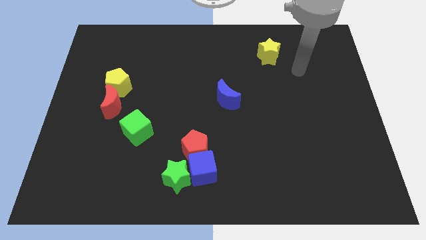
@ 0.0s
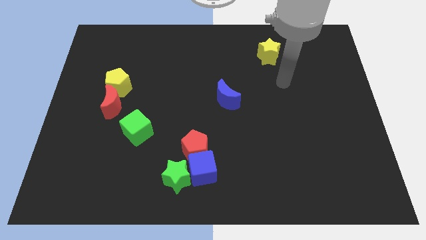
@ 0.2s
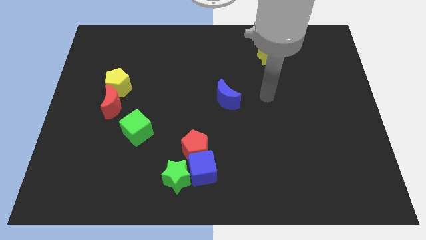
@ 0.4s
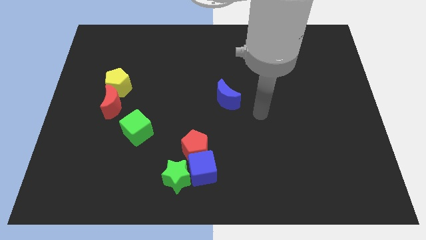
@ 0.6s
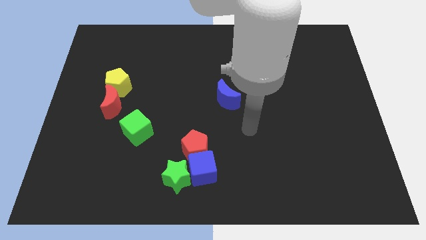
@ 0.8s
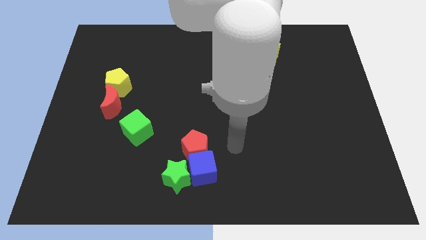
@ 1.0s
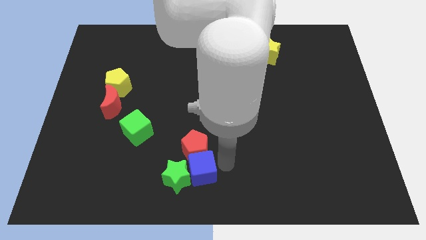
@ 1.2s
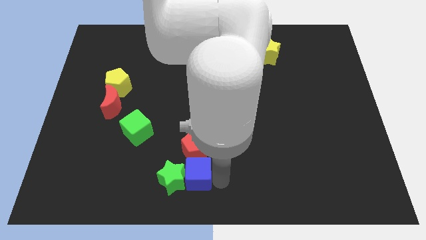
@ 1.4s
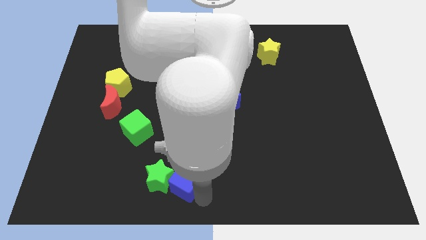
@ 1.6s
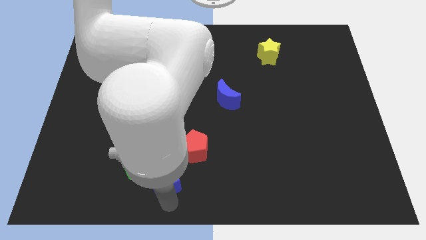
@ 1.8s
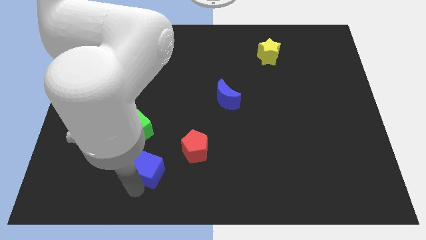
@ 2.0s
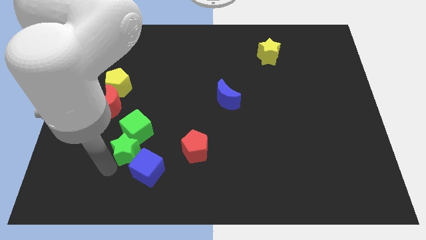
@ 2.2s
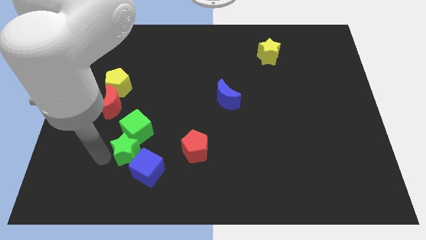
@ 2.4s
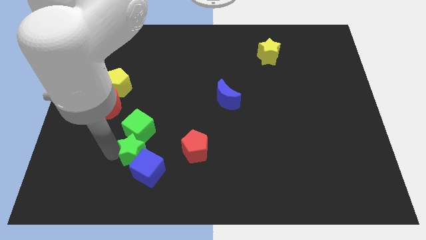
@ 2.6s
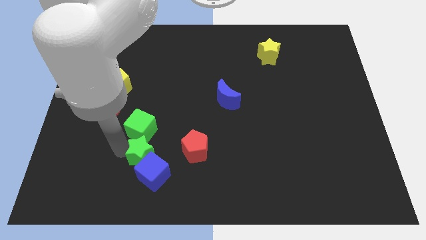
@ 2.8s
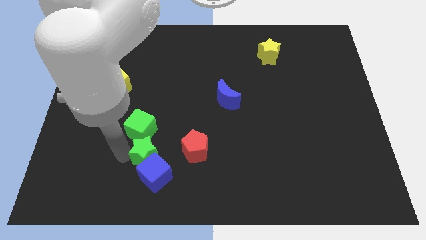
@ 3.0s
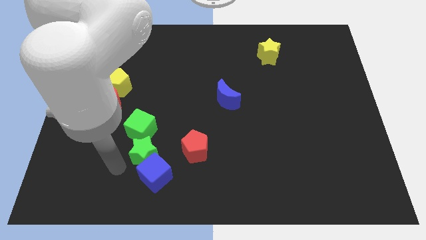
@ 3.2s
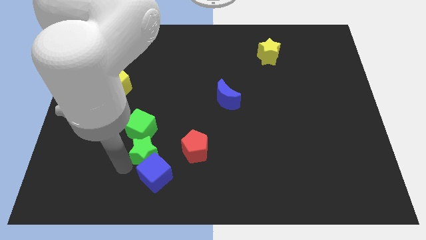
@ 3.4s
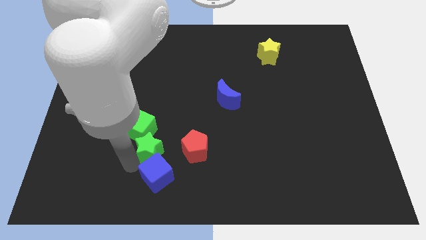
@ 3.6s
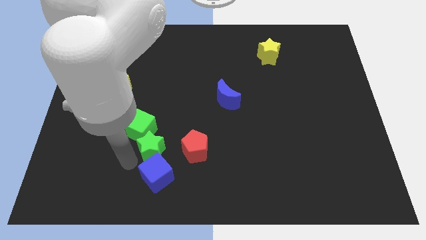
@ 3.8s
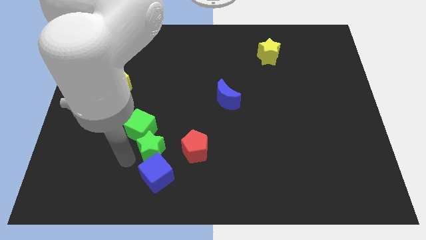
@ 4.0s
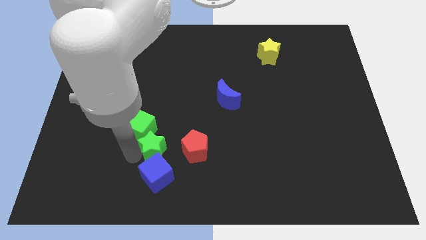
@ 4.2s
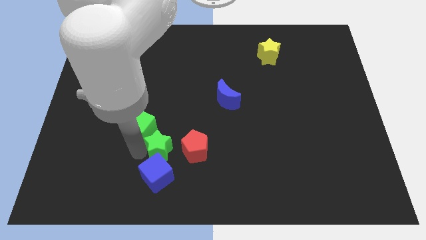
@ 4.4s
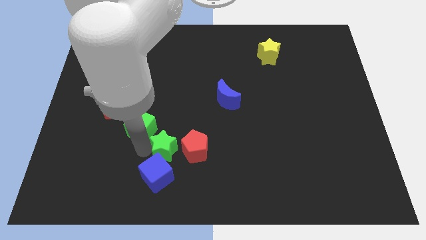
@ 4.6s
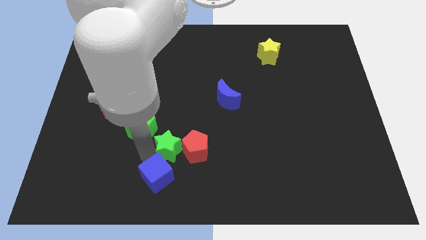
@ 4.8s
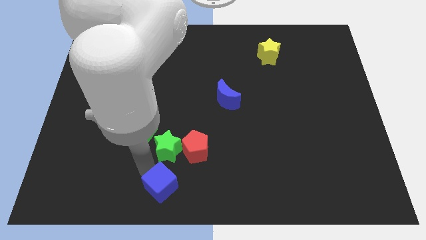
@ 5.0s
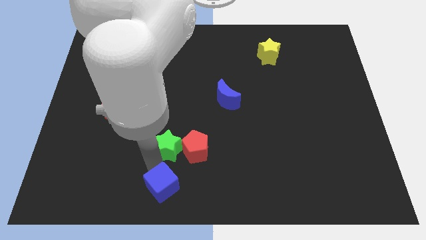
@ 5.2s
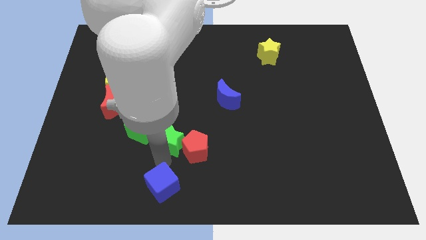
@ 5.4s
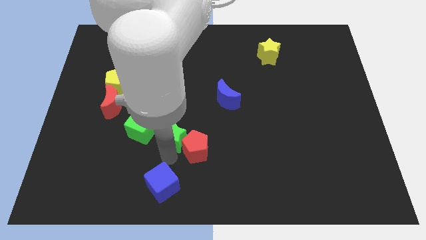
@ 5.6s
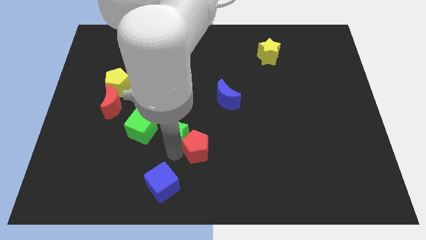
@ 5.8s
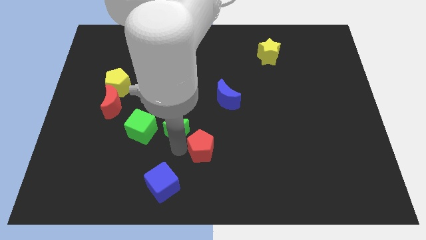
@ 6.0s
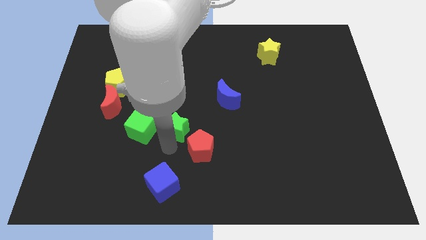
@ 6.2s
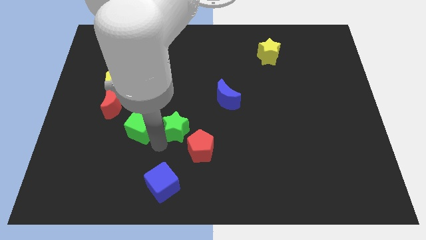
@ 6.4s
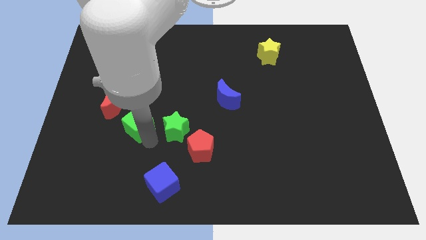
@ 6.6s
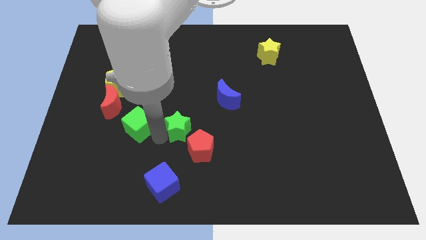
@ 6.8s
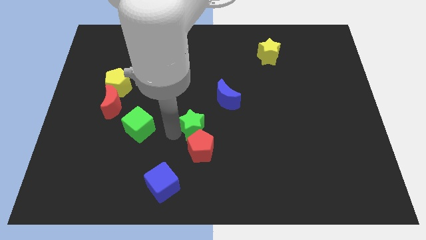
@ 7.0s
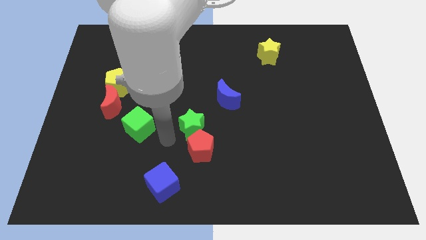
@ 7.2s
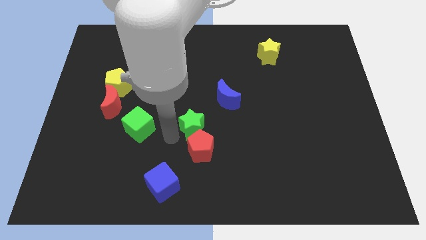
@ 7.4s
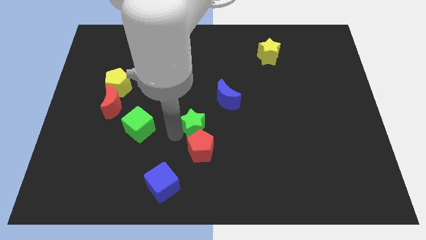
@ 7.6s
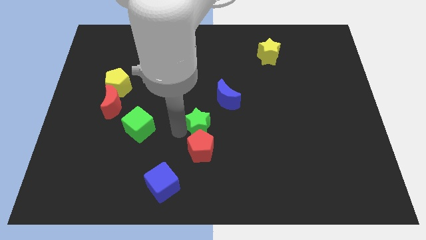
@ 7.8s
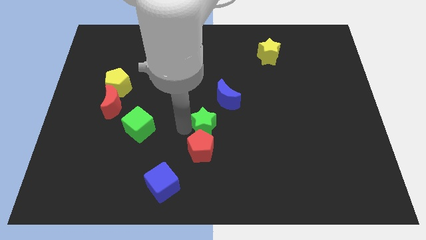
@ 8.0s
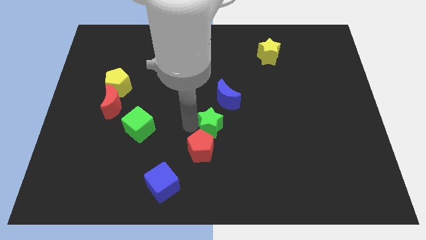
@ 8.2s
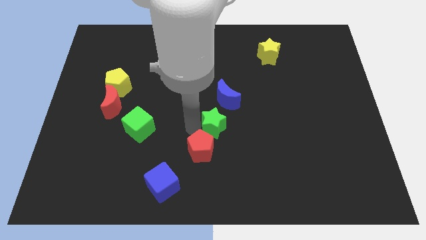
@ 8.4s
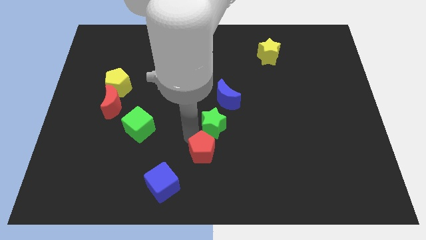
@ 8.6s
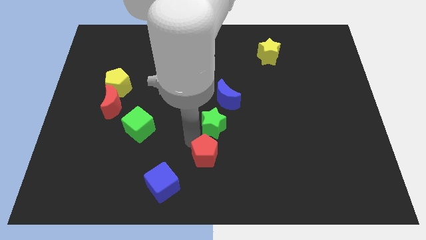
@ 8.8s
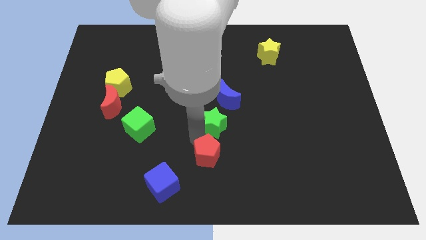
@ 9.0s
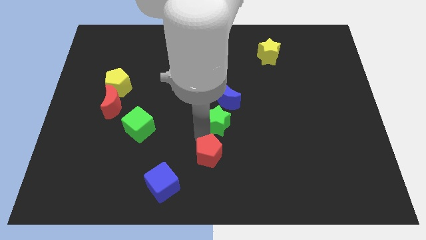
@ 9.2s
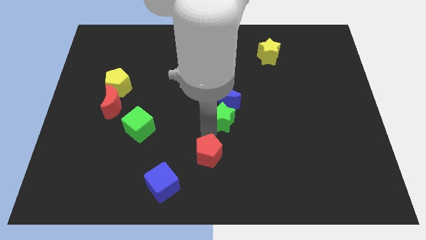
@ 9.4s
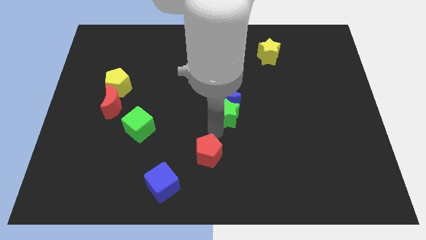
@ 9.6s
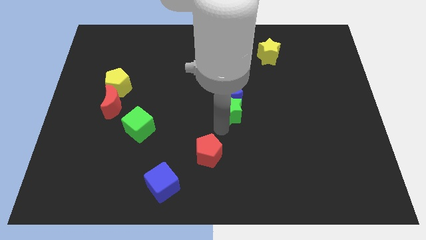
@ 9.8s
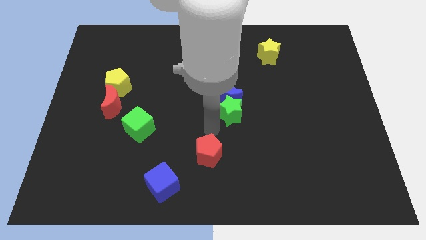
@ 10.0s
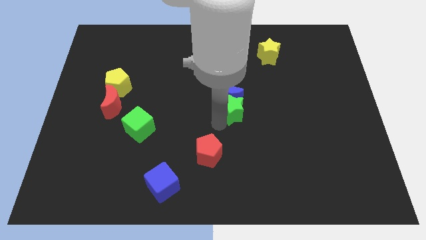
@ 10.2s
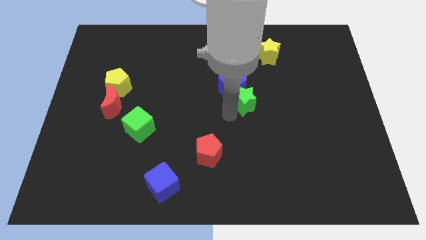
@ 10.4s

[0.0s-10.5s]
move the green star to the right of the blue moon

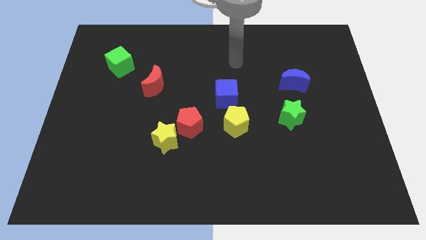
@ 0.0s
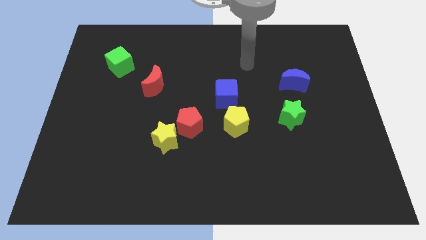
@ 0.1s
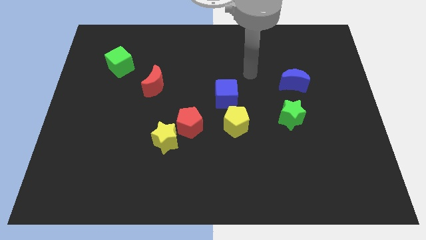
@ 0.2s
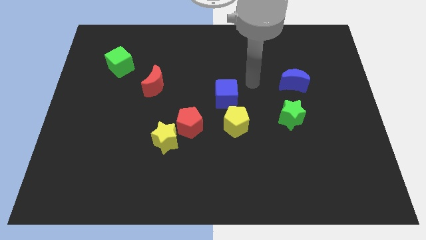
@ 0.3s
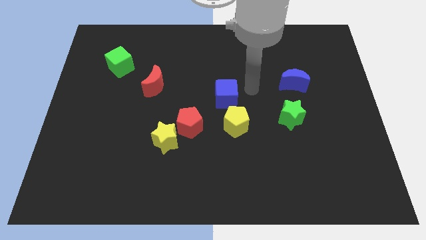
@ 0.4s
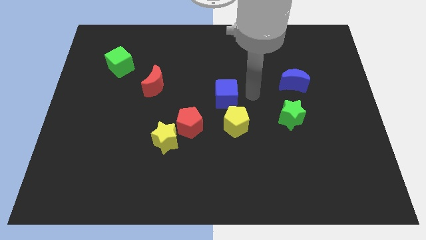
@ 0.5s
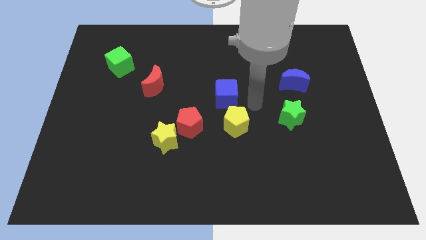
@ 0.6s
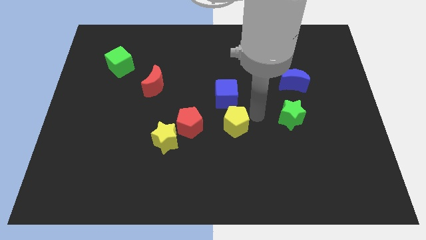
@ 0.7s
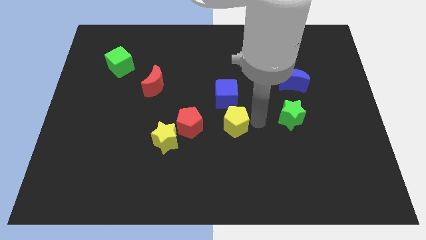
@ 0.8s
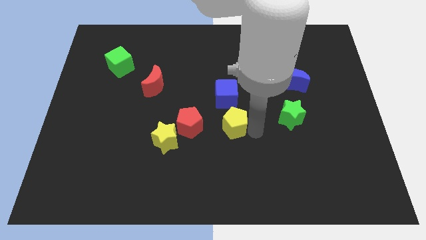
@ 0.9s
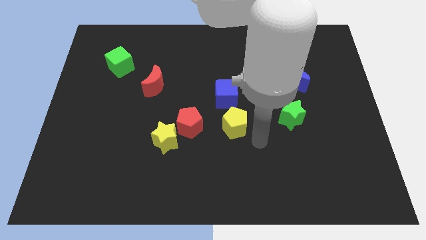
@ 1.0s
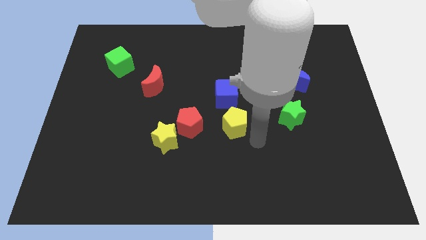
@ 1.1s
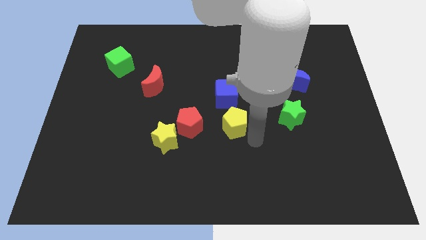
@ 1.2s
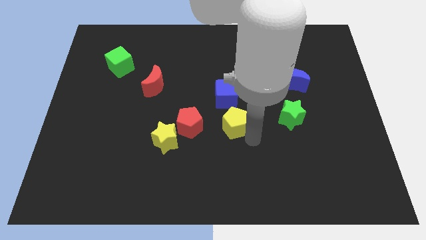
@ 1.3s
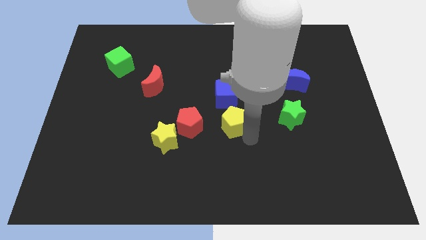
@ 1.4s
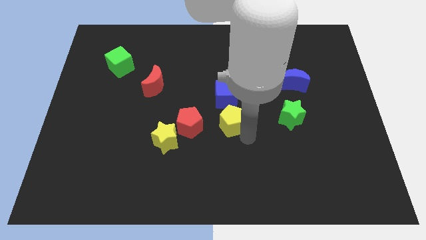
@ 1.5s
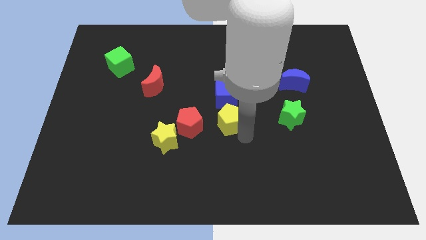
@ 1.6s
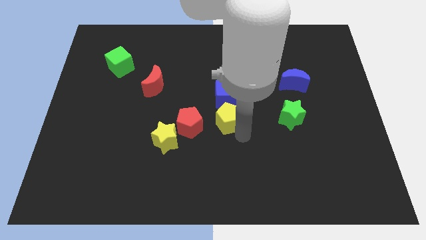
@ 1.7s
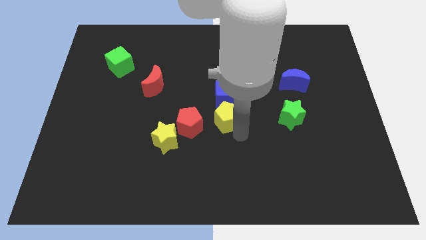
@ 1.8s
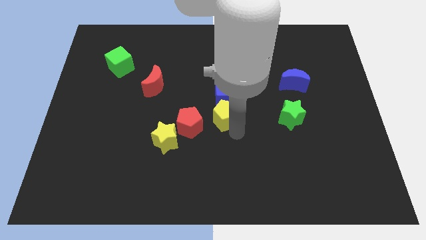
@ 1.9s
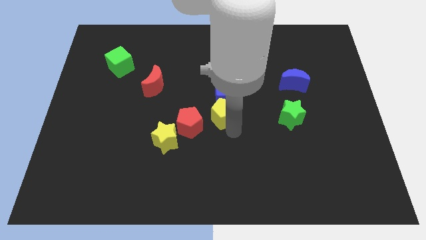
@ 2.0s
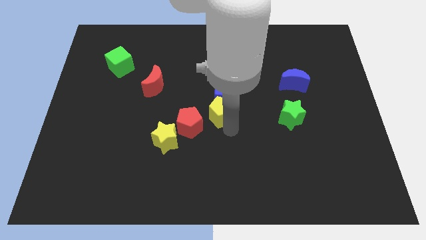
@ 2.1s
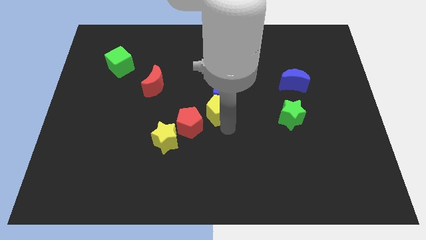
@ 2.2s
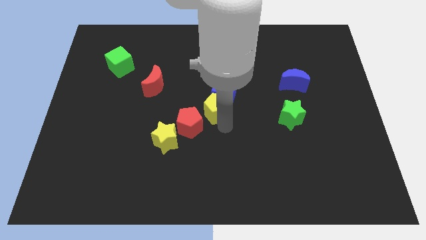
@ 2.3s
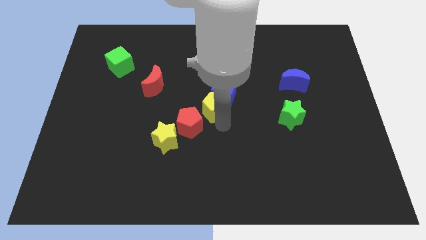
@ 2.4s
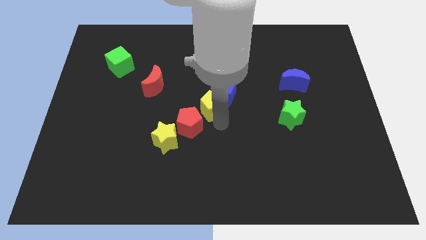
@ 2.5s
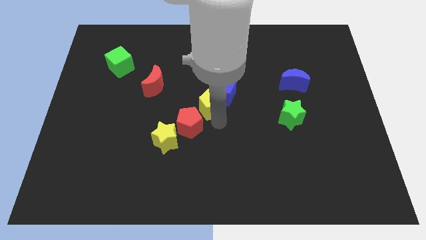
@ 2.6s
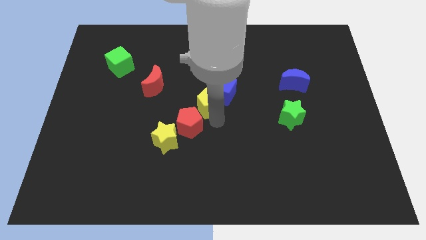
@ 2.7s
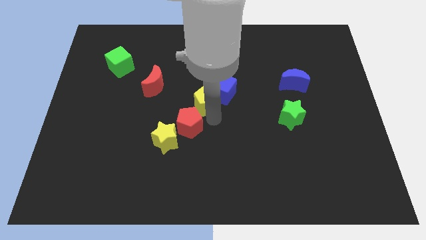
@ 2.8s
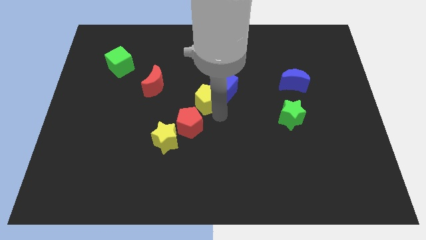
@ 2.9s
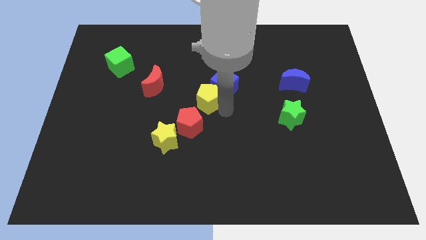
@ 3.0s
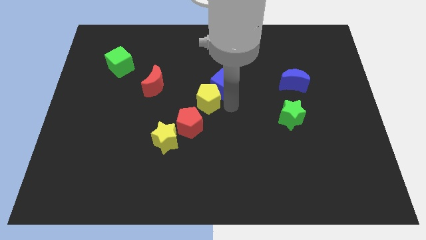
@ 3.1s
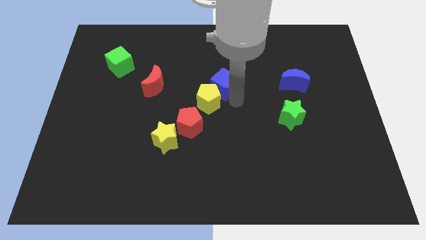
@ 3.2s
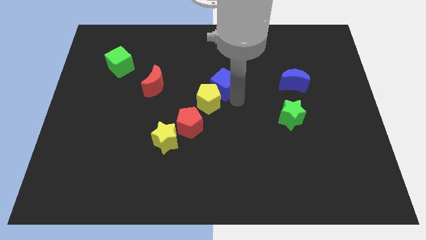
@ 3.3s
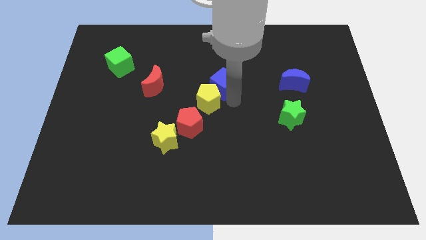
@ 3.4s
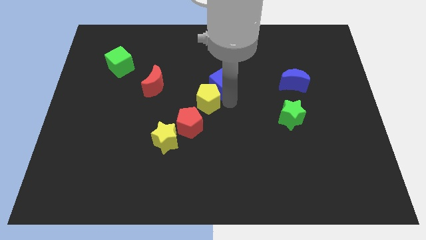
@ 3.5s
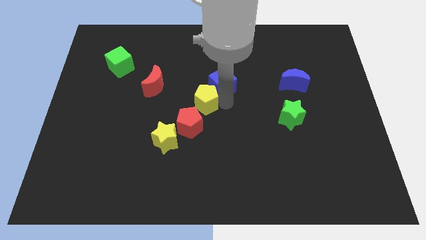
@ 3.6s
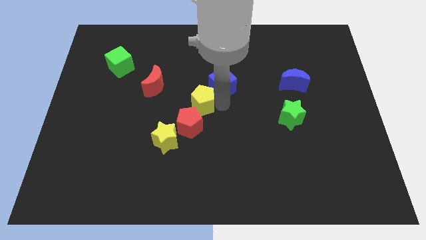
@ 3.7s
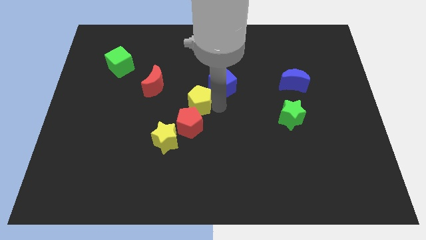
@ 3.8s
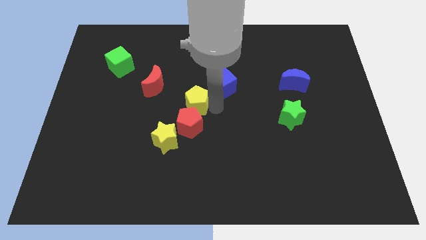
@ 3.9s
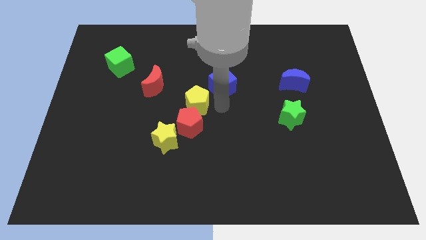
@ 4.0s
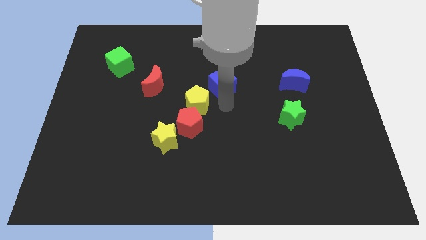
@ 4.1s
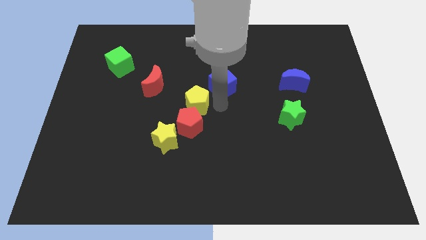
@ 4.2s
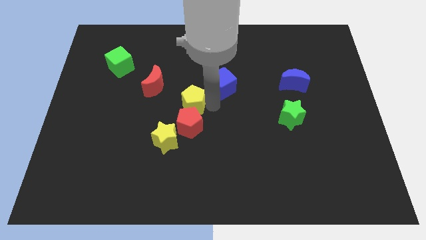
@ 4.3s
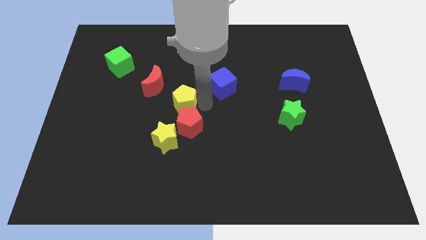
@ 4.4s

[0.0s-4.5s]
slide the yellow pentagon to the top side of the yellow star
